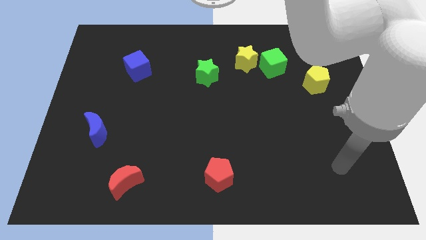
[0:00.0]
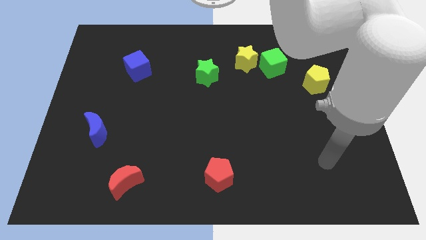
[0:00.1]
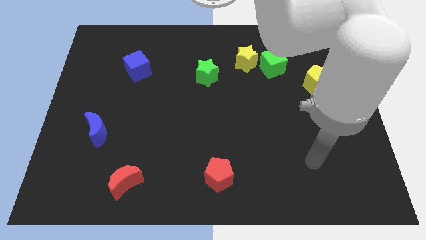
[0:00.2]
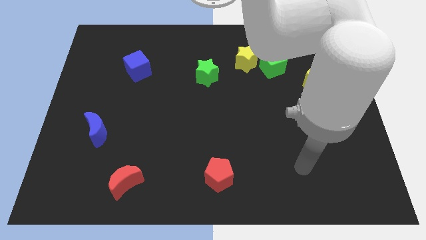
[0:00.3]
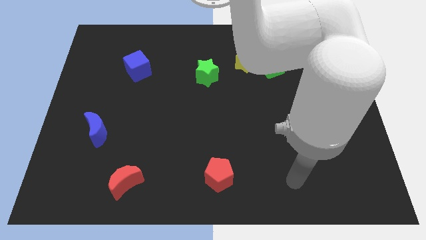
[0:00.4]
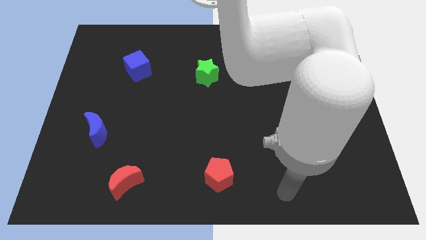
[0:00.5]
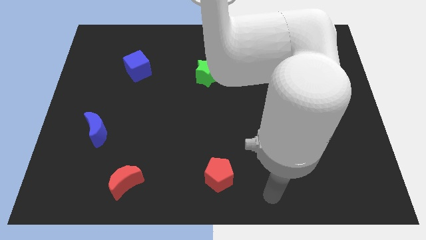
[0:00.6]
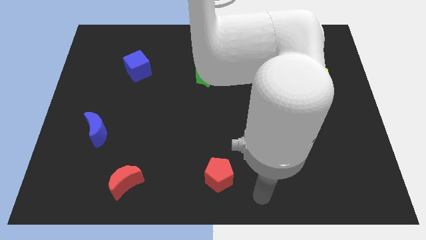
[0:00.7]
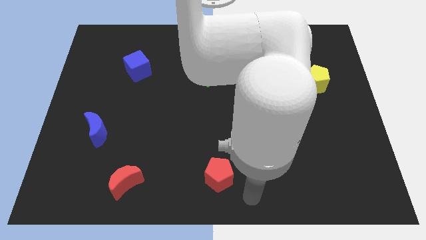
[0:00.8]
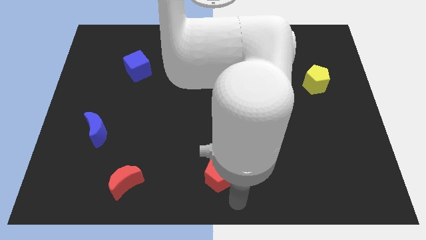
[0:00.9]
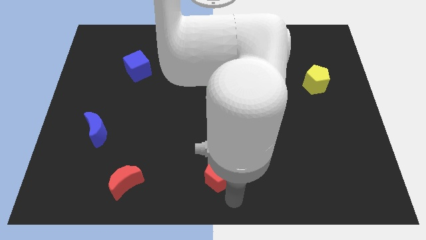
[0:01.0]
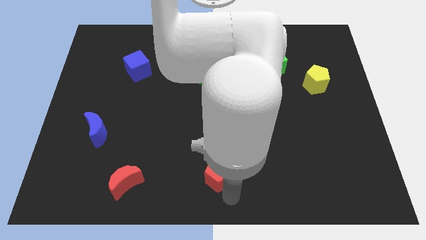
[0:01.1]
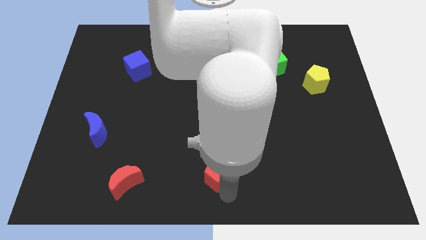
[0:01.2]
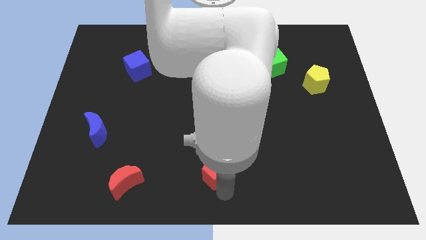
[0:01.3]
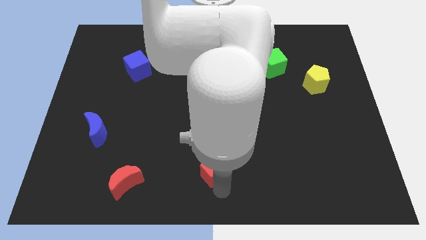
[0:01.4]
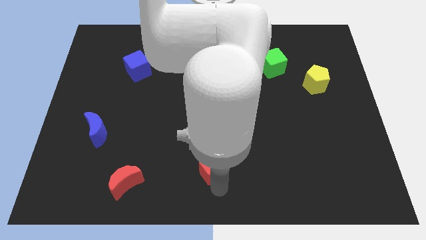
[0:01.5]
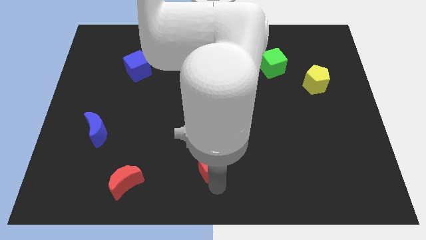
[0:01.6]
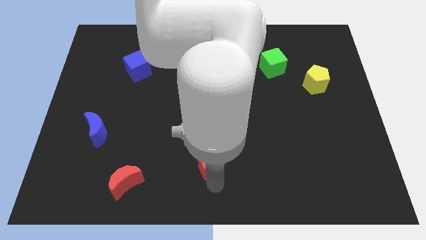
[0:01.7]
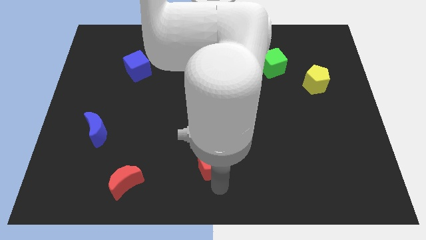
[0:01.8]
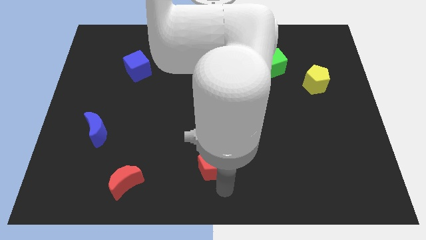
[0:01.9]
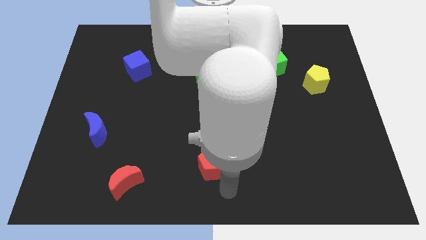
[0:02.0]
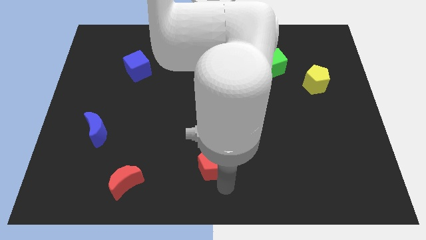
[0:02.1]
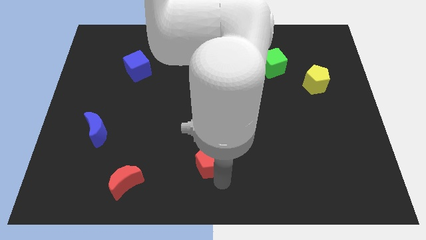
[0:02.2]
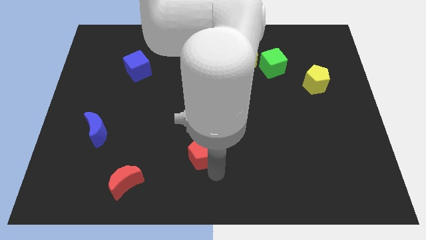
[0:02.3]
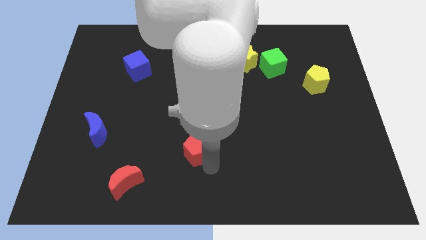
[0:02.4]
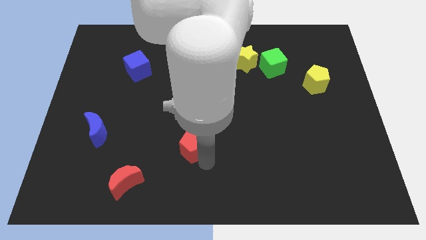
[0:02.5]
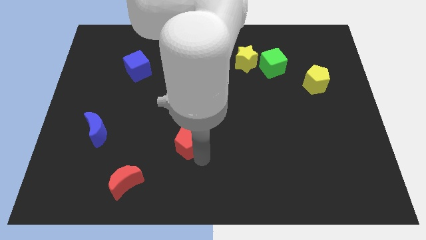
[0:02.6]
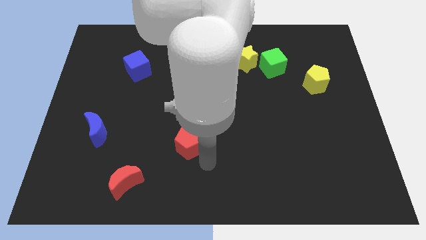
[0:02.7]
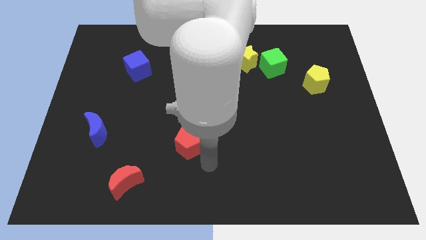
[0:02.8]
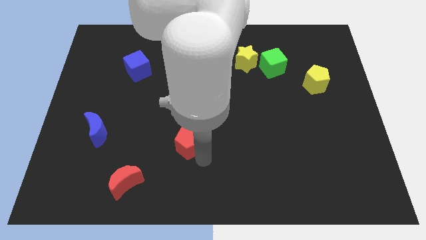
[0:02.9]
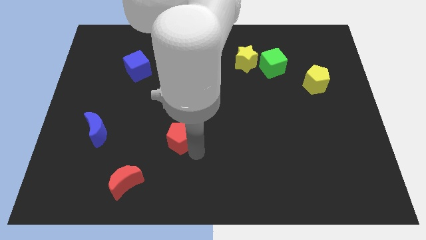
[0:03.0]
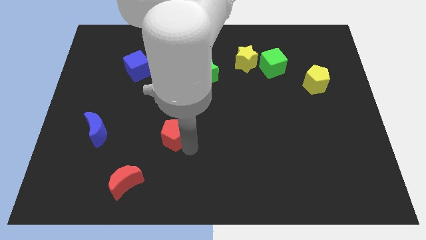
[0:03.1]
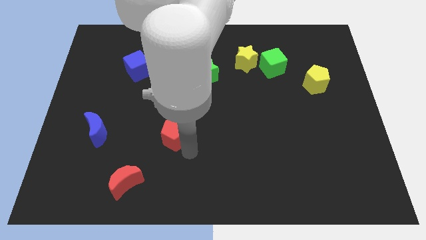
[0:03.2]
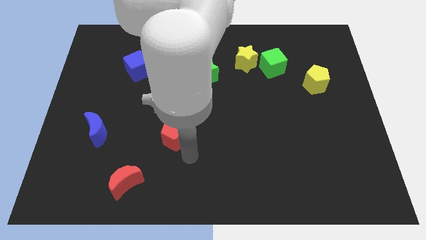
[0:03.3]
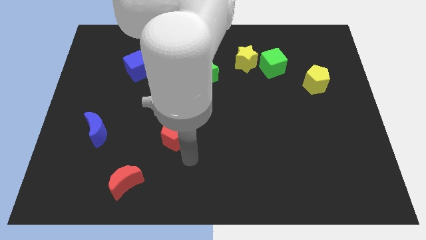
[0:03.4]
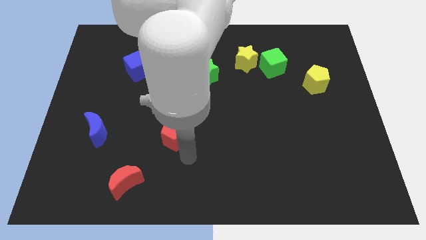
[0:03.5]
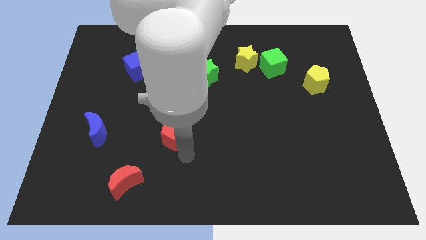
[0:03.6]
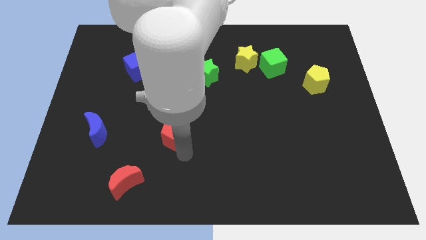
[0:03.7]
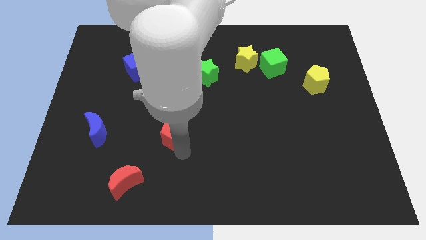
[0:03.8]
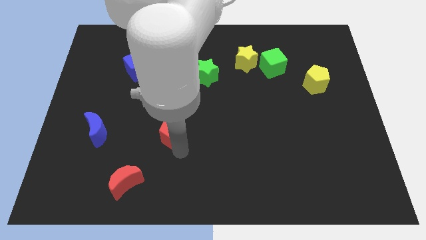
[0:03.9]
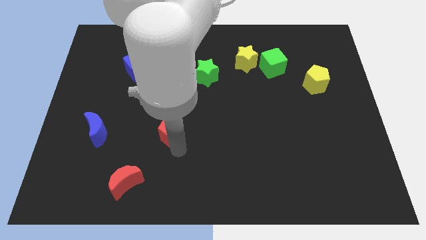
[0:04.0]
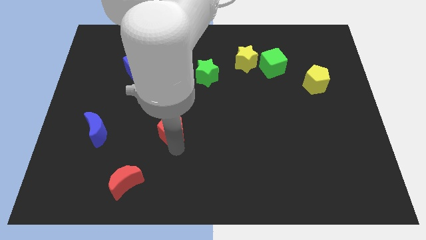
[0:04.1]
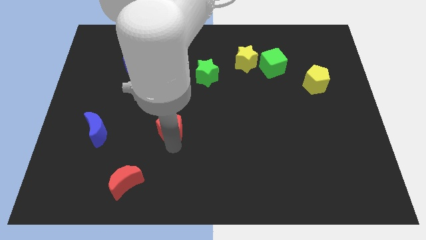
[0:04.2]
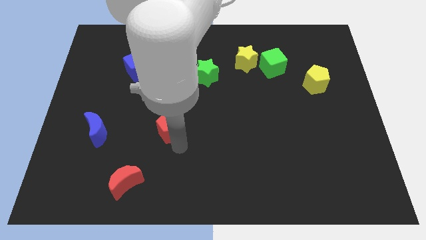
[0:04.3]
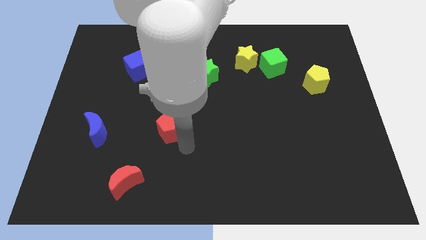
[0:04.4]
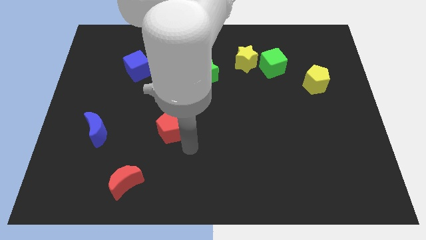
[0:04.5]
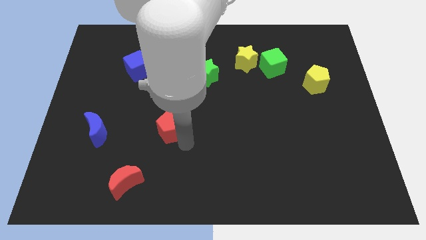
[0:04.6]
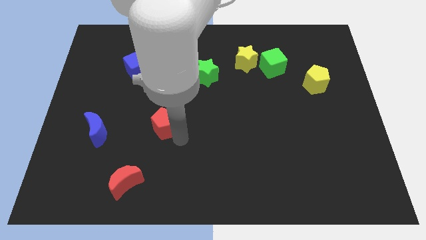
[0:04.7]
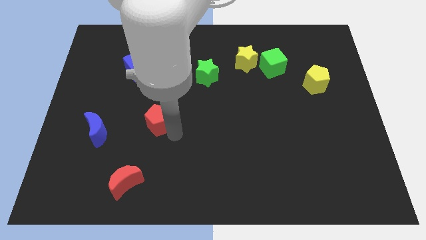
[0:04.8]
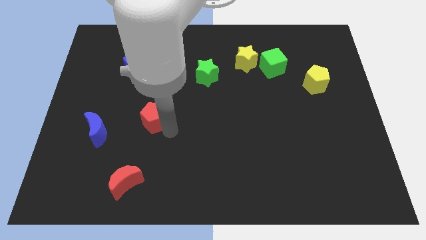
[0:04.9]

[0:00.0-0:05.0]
push the red pentagon up and left diagonally

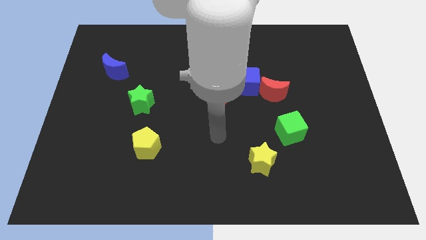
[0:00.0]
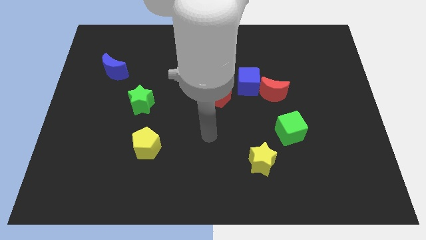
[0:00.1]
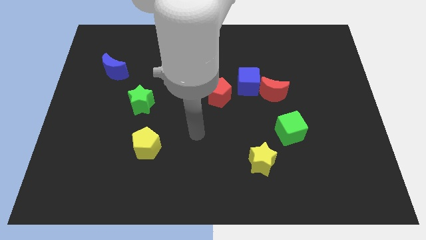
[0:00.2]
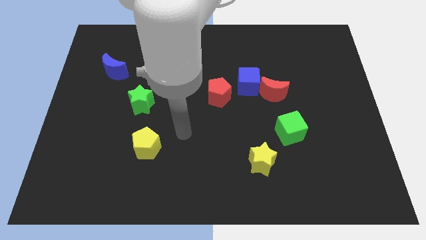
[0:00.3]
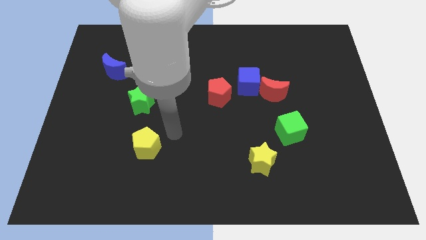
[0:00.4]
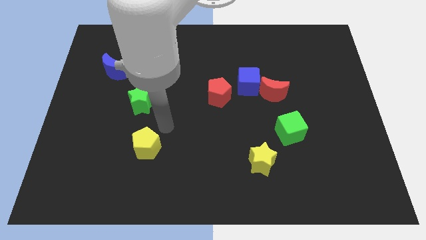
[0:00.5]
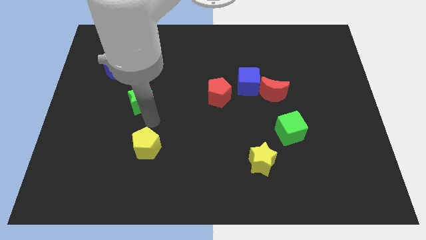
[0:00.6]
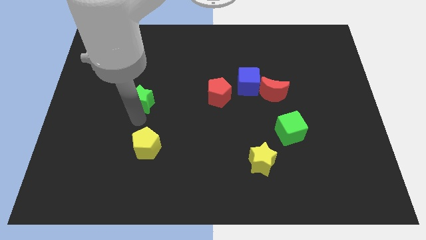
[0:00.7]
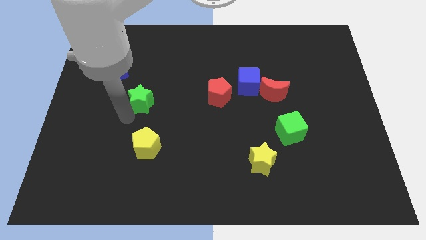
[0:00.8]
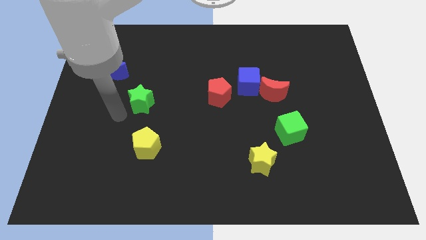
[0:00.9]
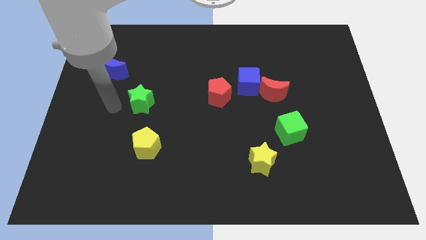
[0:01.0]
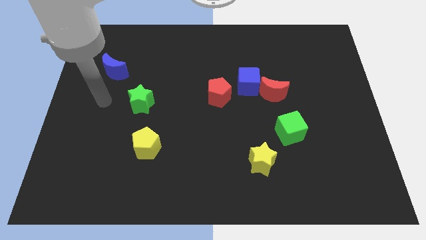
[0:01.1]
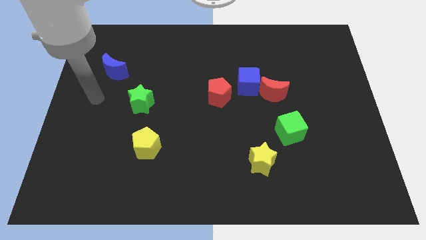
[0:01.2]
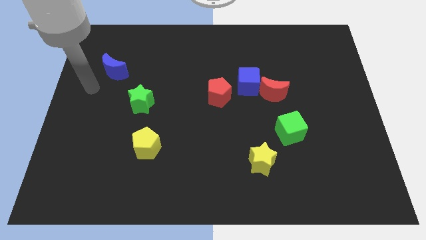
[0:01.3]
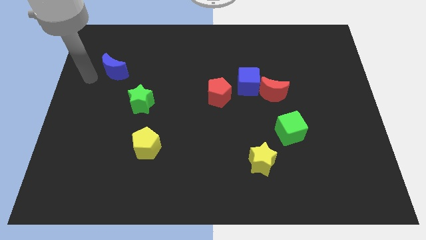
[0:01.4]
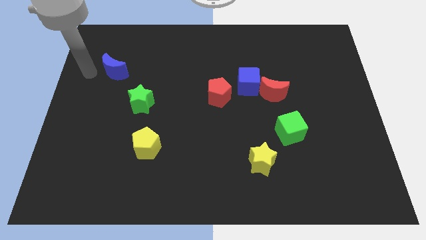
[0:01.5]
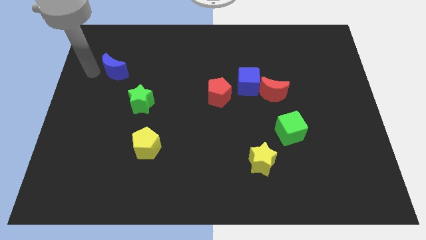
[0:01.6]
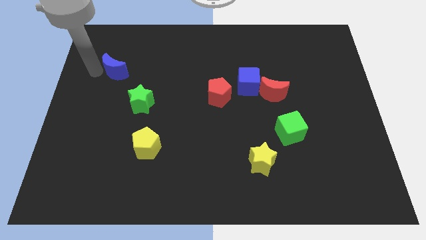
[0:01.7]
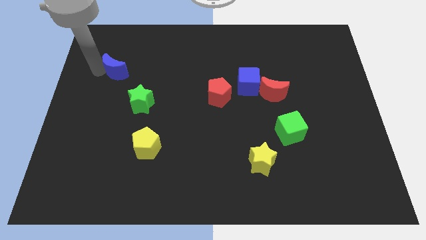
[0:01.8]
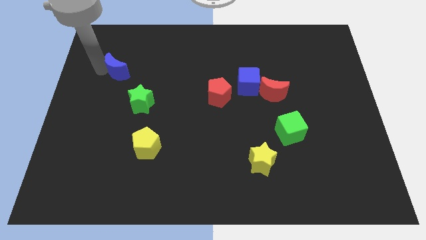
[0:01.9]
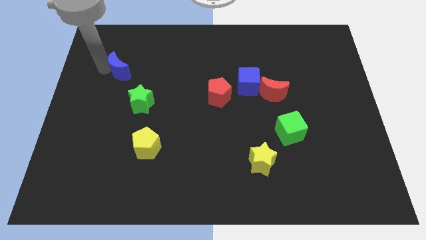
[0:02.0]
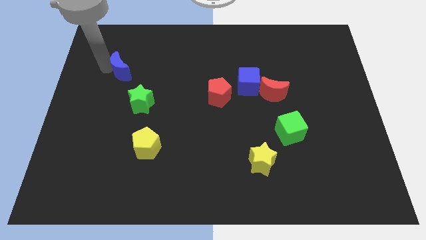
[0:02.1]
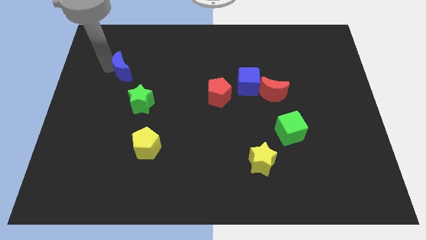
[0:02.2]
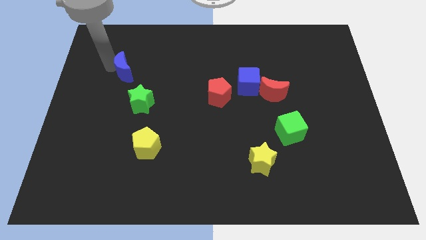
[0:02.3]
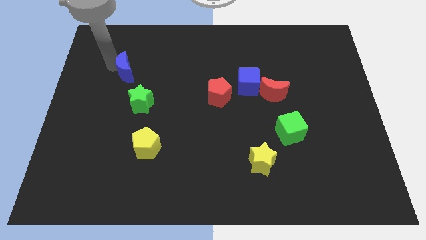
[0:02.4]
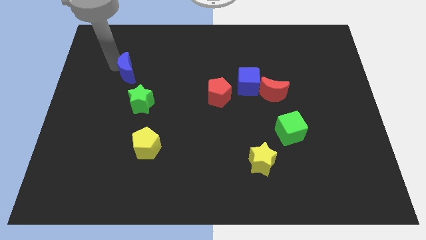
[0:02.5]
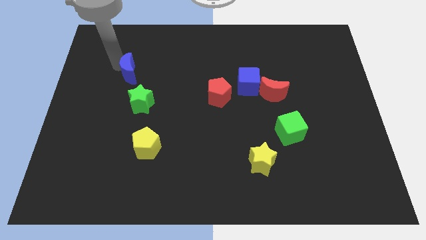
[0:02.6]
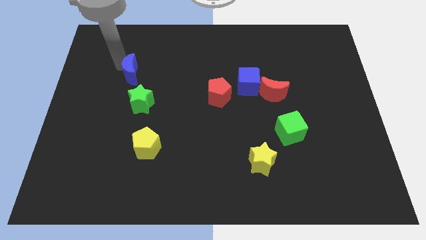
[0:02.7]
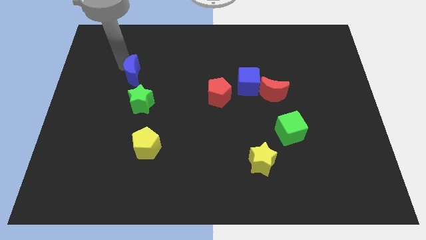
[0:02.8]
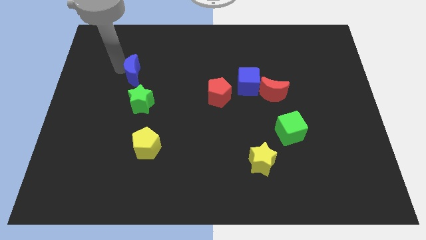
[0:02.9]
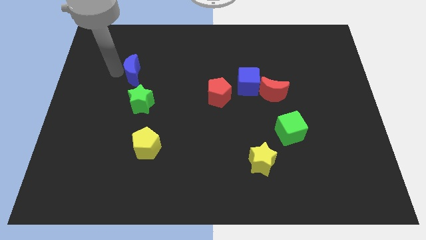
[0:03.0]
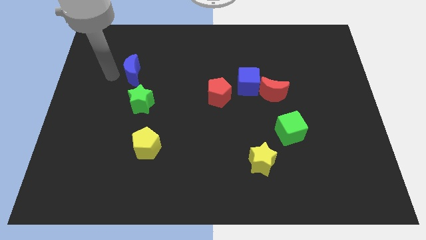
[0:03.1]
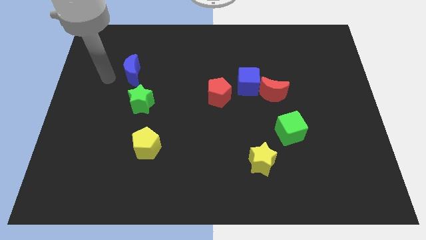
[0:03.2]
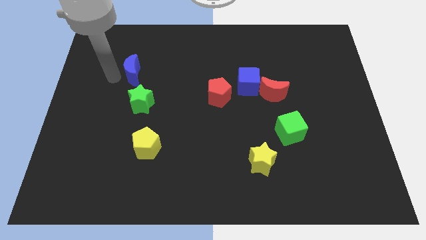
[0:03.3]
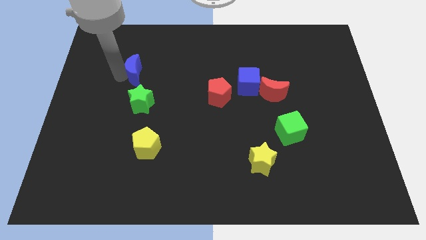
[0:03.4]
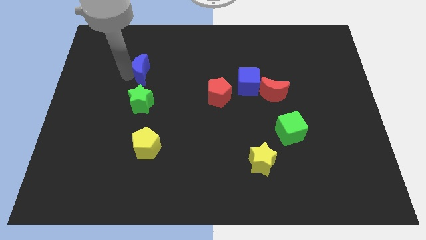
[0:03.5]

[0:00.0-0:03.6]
slightly move the blue moon to the right
